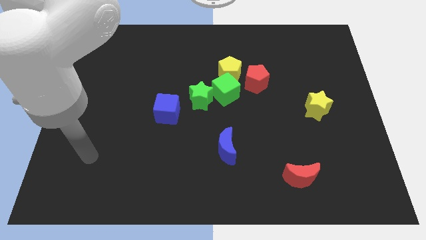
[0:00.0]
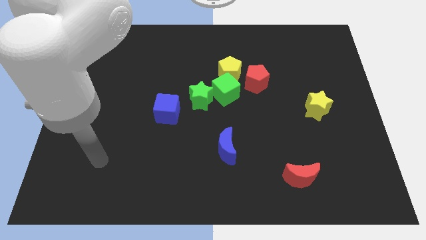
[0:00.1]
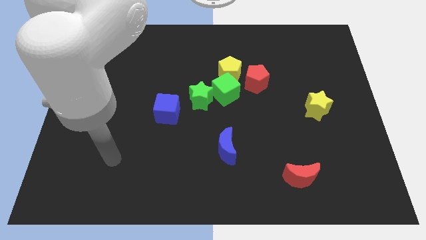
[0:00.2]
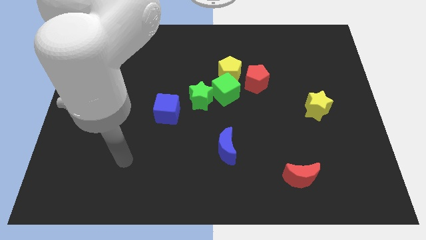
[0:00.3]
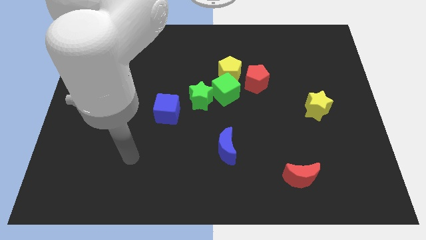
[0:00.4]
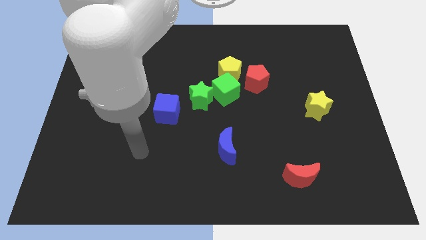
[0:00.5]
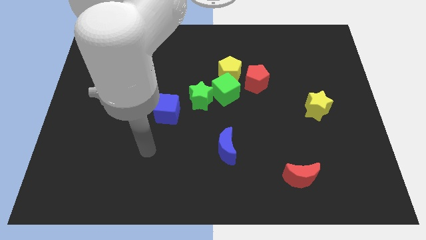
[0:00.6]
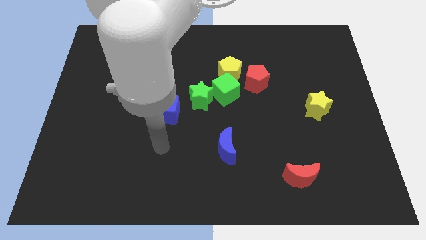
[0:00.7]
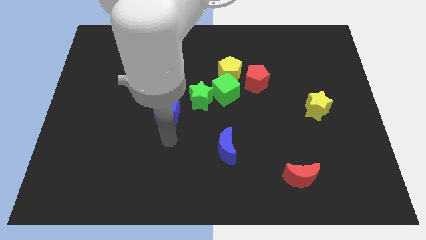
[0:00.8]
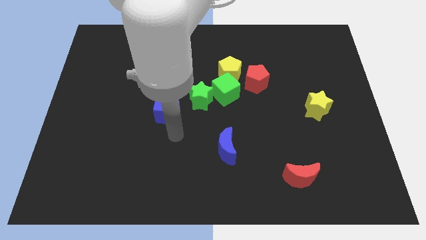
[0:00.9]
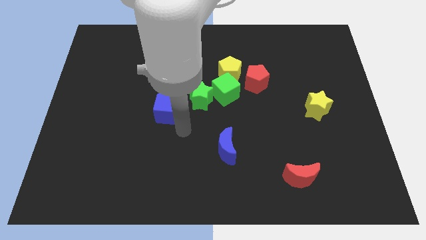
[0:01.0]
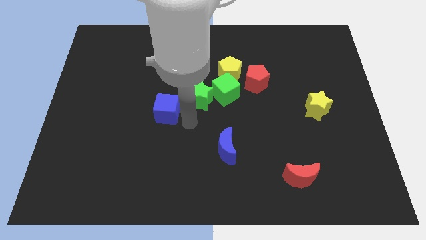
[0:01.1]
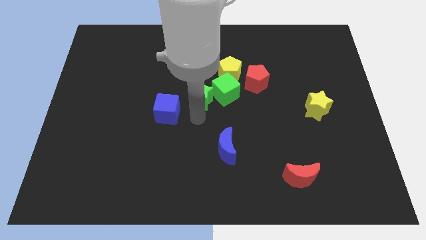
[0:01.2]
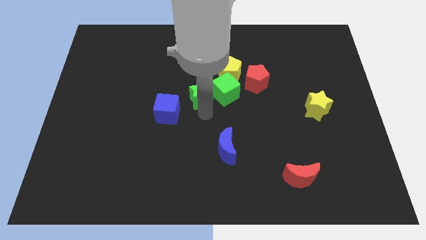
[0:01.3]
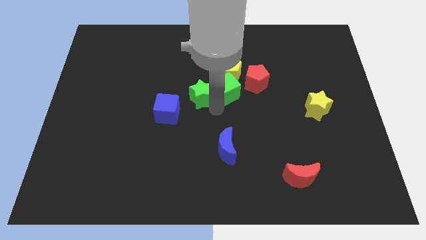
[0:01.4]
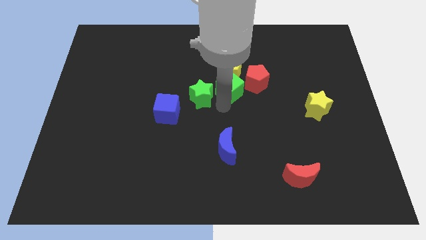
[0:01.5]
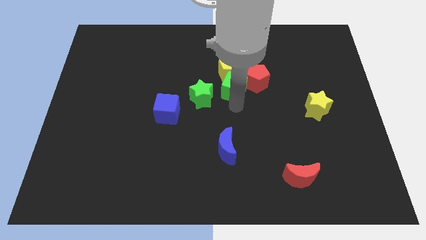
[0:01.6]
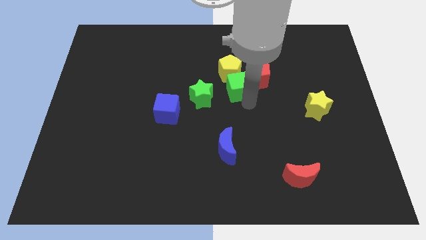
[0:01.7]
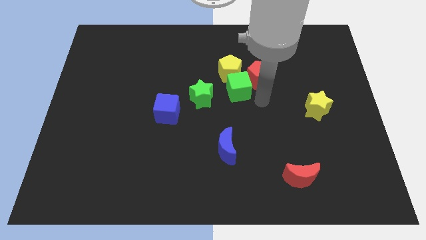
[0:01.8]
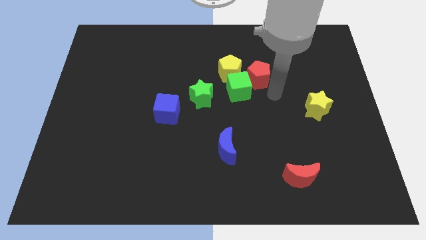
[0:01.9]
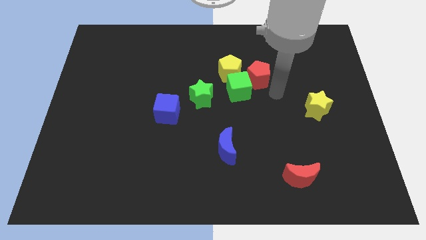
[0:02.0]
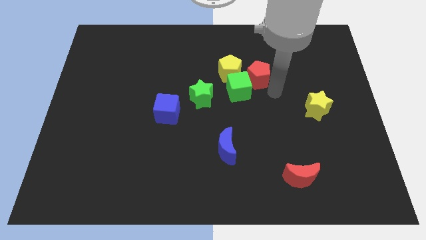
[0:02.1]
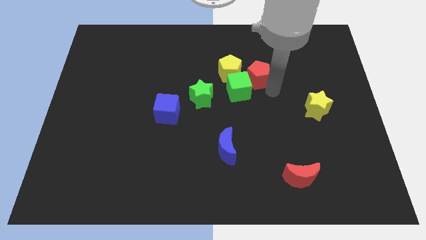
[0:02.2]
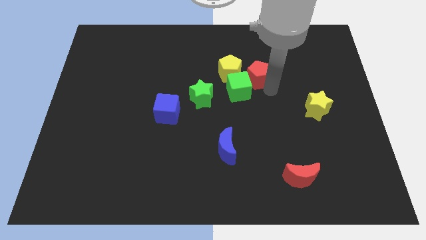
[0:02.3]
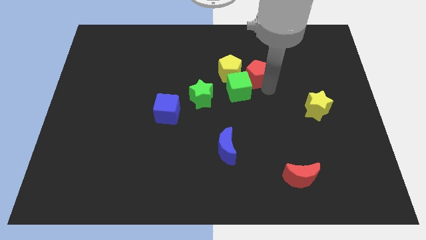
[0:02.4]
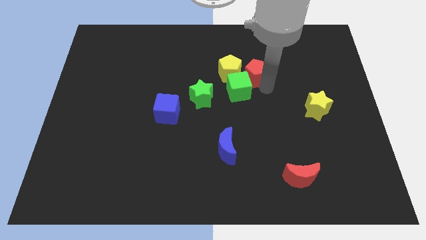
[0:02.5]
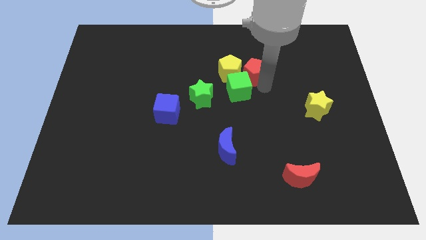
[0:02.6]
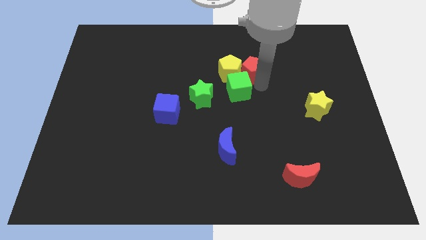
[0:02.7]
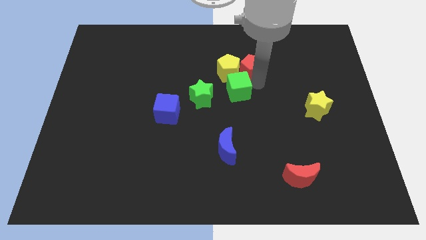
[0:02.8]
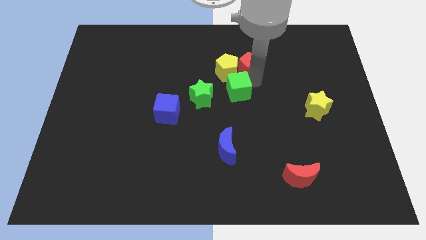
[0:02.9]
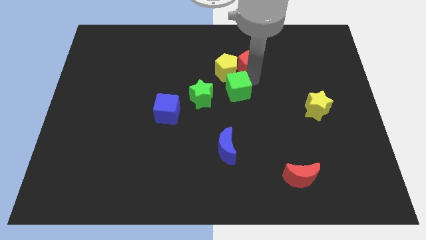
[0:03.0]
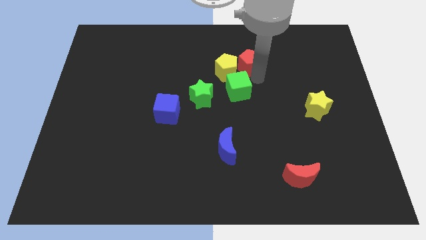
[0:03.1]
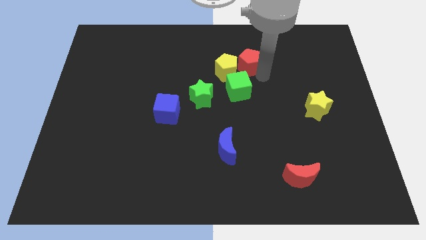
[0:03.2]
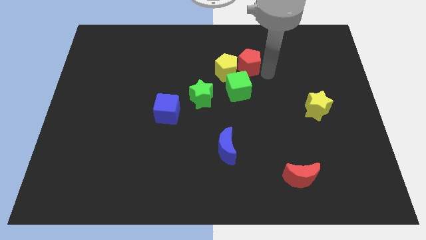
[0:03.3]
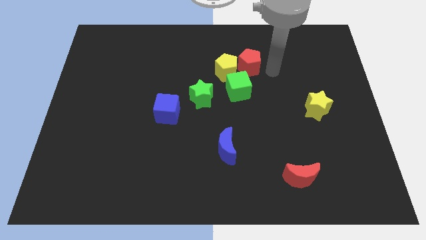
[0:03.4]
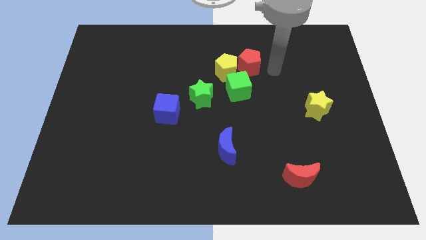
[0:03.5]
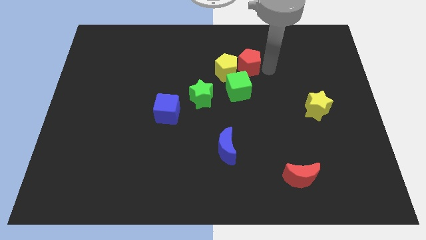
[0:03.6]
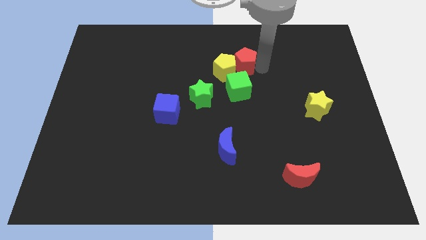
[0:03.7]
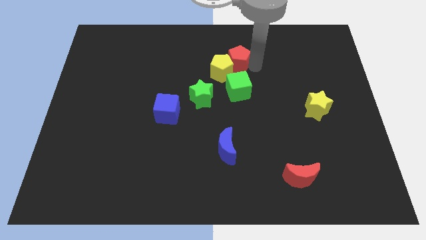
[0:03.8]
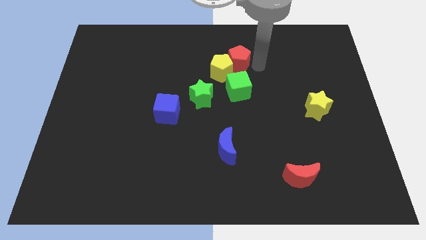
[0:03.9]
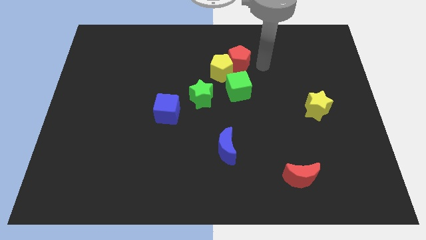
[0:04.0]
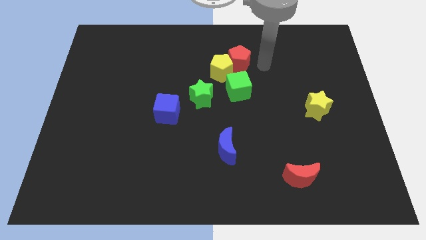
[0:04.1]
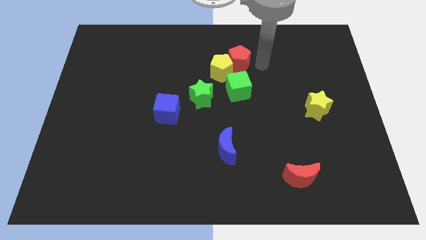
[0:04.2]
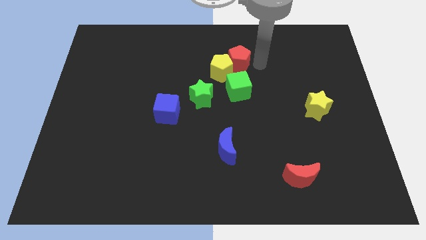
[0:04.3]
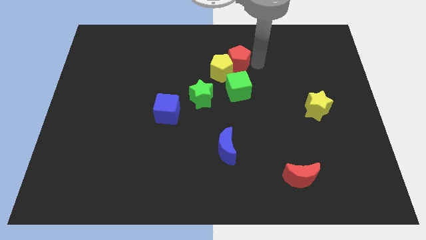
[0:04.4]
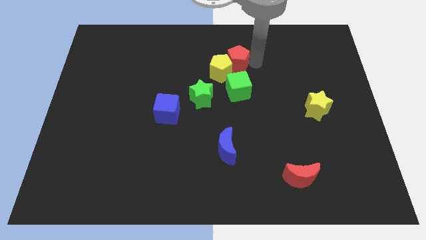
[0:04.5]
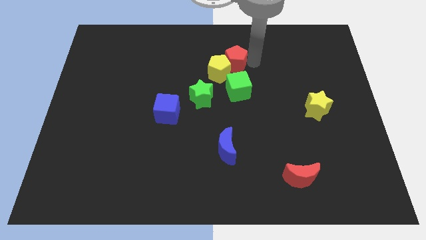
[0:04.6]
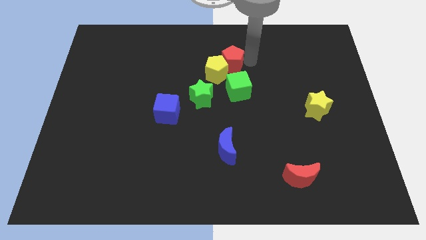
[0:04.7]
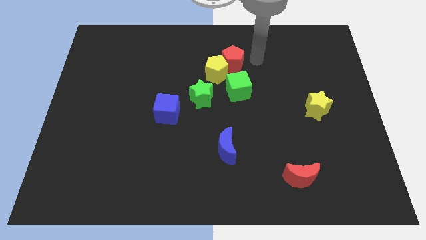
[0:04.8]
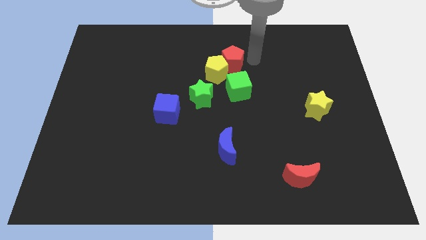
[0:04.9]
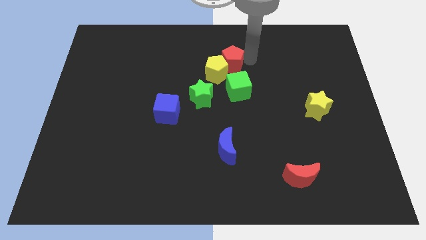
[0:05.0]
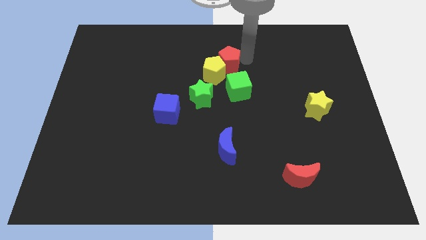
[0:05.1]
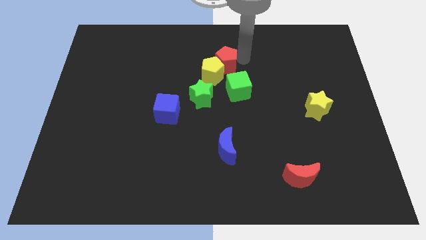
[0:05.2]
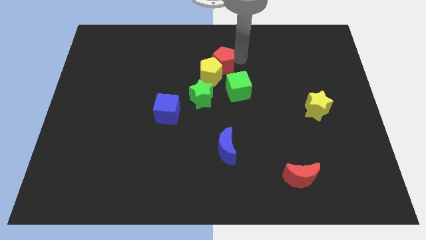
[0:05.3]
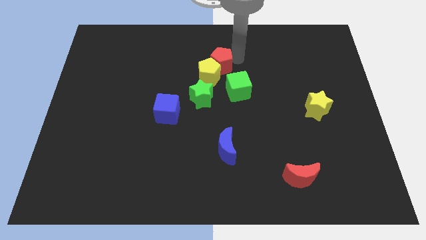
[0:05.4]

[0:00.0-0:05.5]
slide the red pentagon above the green star

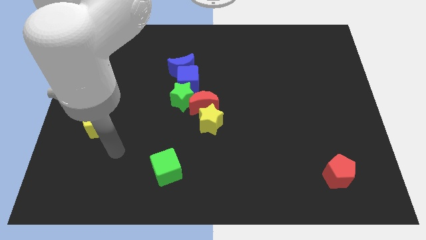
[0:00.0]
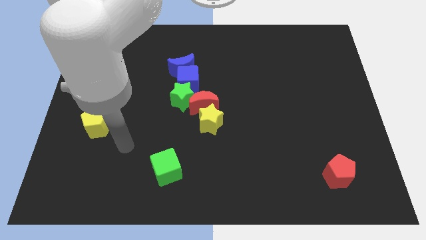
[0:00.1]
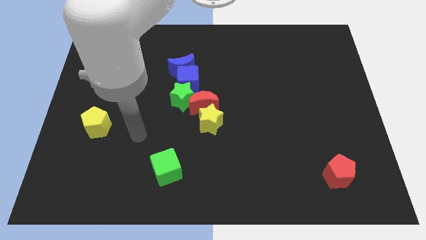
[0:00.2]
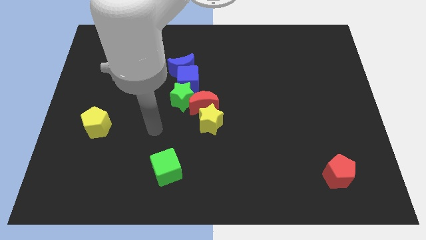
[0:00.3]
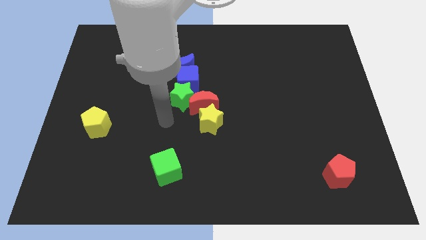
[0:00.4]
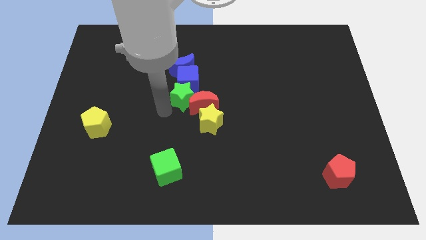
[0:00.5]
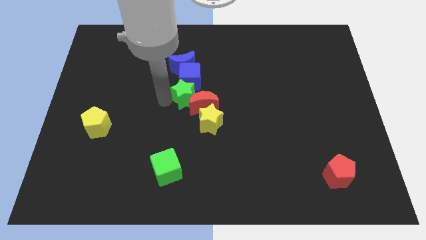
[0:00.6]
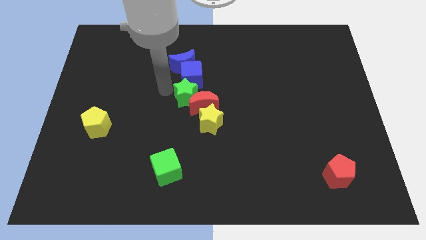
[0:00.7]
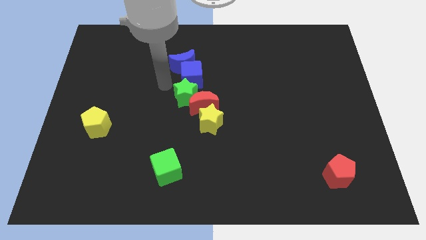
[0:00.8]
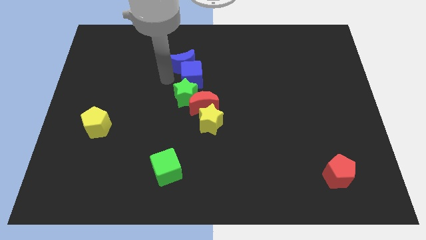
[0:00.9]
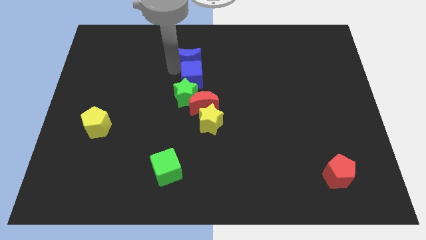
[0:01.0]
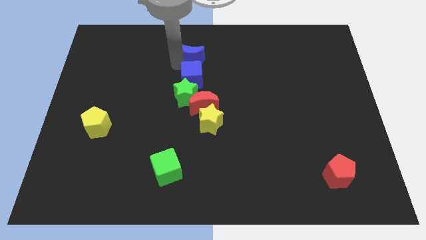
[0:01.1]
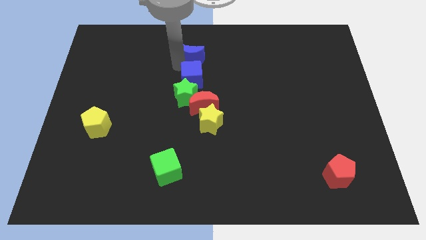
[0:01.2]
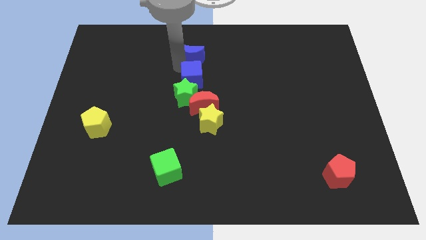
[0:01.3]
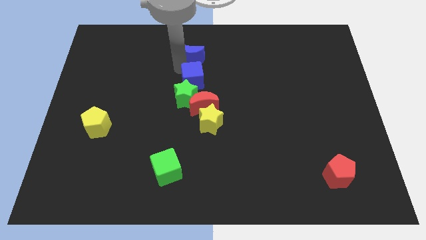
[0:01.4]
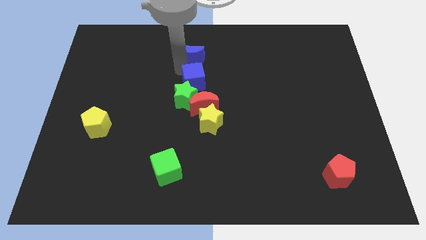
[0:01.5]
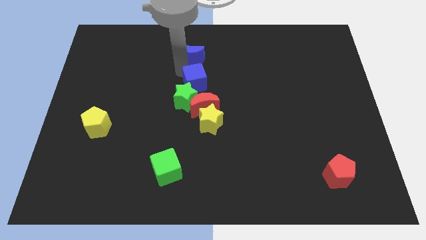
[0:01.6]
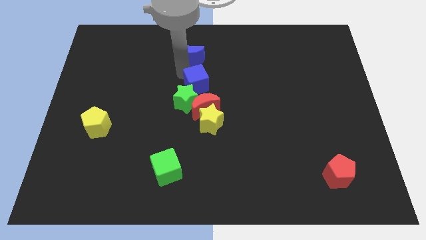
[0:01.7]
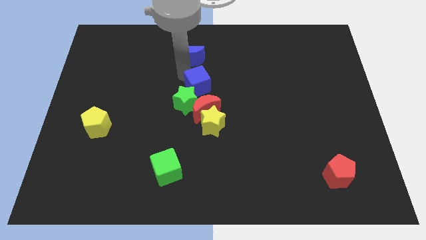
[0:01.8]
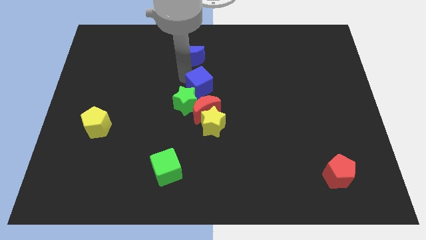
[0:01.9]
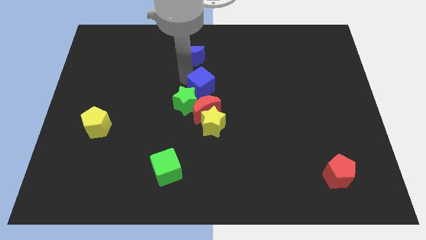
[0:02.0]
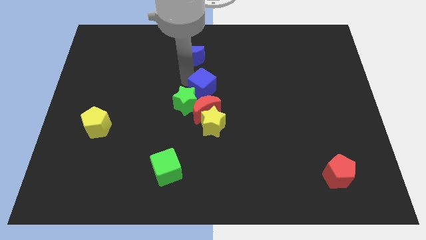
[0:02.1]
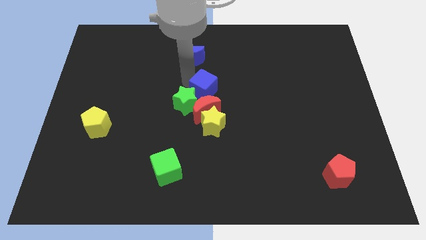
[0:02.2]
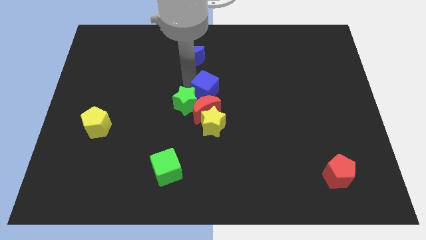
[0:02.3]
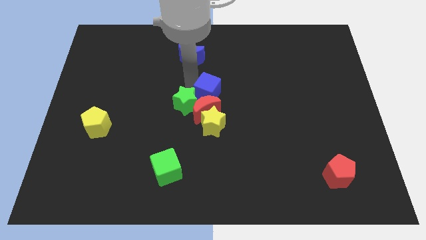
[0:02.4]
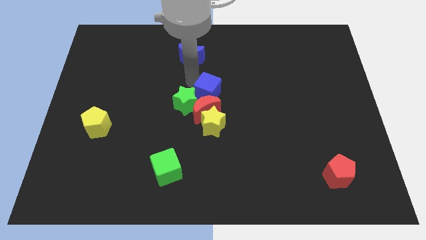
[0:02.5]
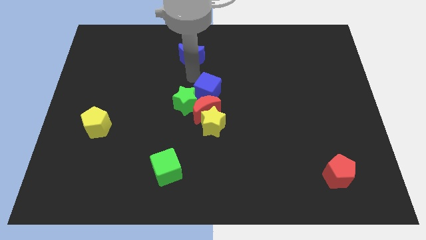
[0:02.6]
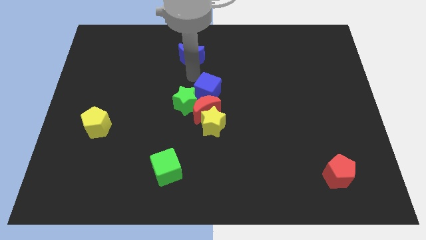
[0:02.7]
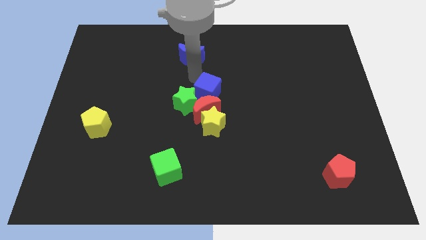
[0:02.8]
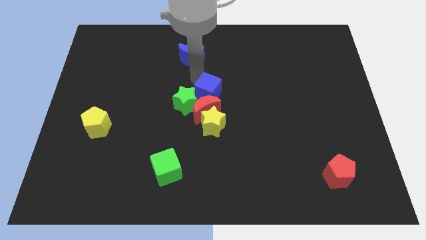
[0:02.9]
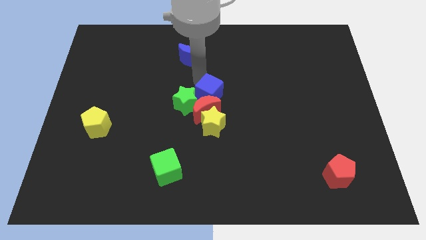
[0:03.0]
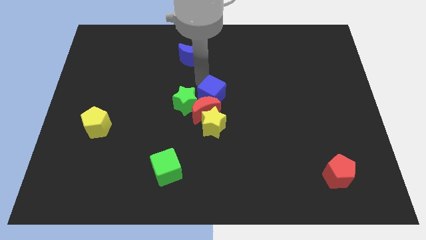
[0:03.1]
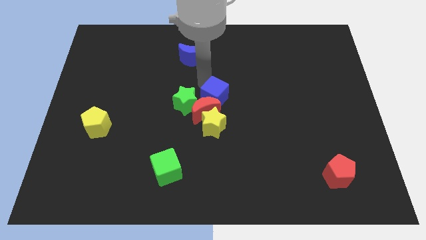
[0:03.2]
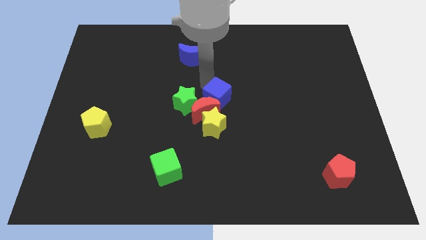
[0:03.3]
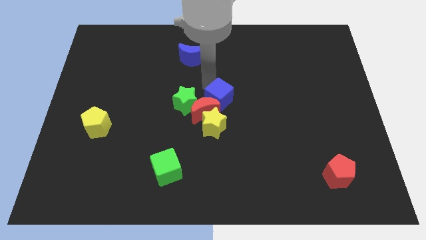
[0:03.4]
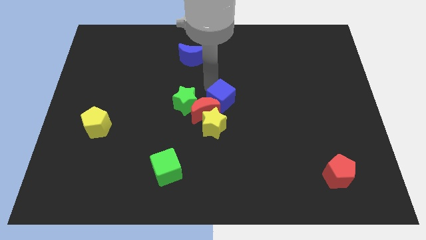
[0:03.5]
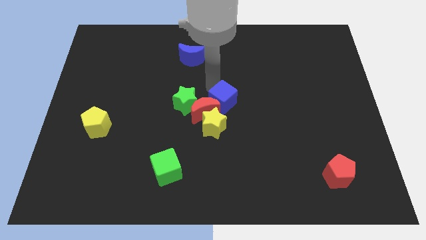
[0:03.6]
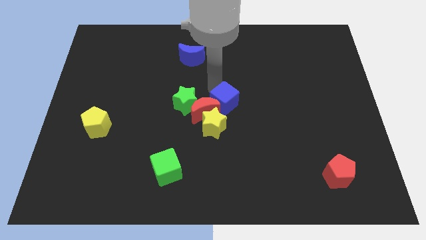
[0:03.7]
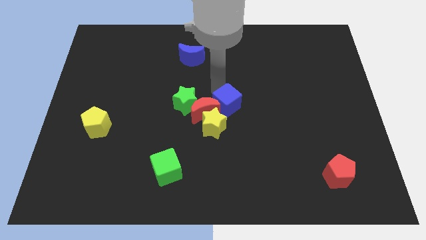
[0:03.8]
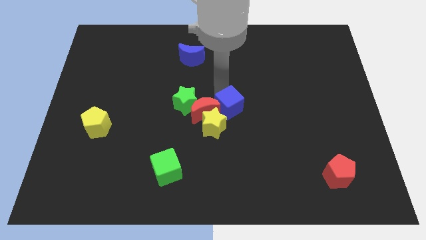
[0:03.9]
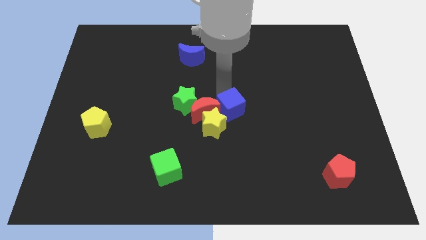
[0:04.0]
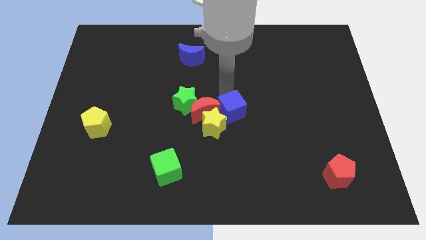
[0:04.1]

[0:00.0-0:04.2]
put the blue cube to the bottom right side of the red moon
